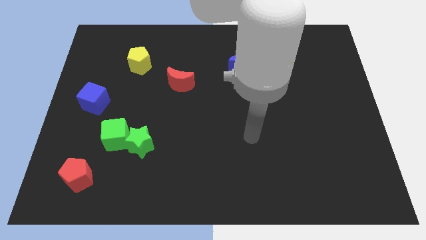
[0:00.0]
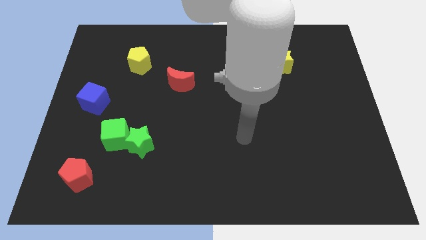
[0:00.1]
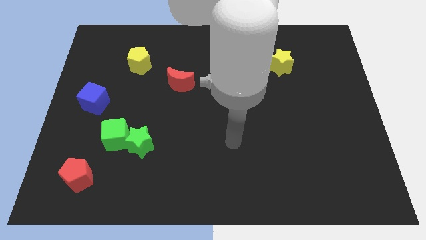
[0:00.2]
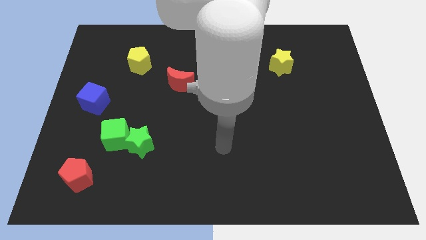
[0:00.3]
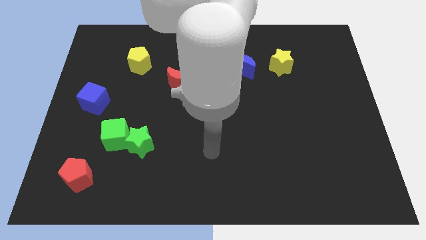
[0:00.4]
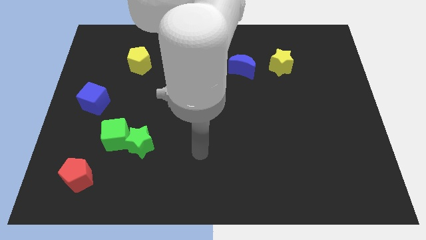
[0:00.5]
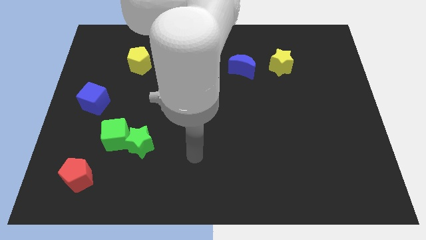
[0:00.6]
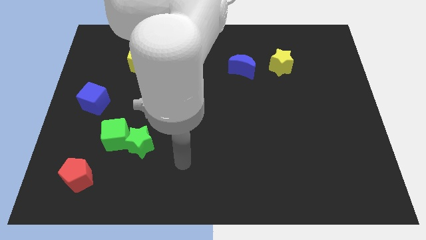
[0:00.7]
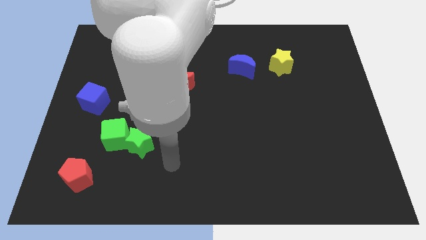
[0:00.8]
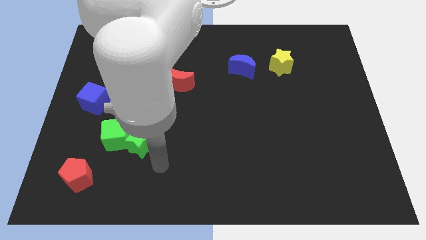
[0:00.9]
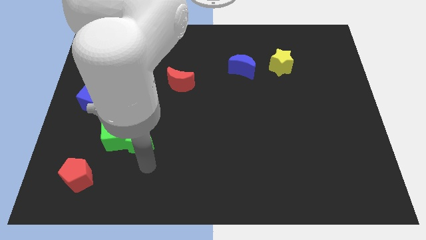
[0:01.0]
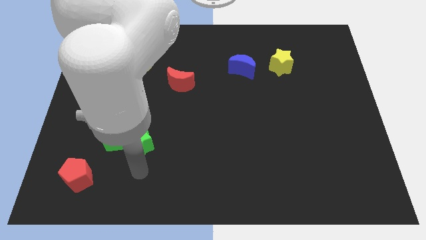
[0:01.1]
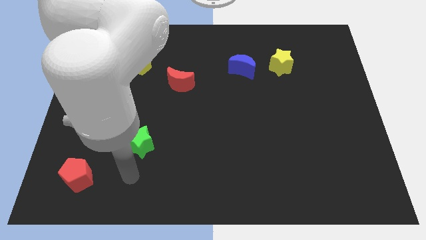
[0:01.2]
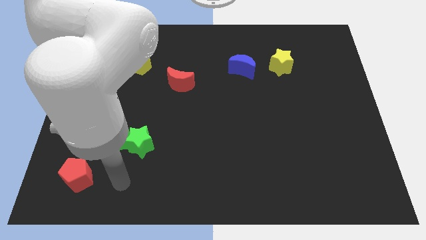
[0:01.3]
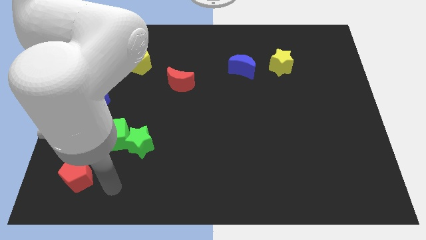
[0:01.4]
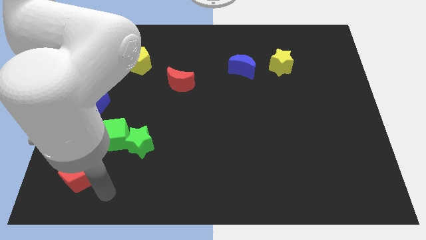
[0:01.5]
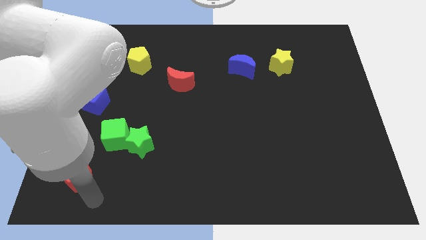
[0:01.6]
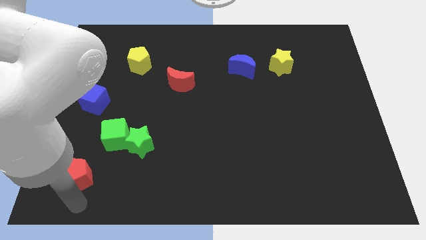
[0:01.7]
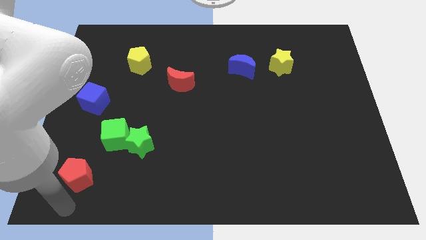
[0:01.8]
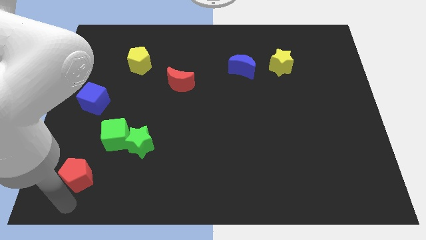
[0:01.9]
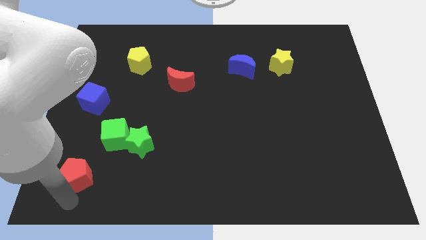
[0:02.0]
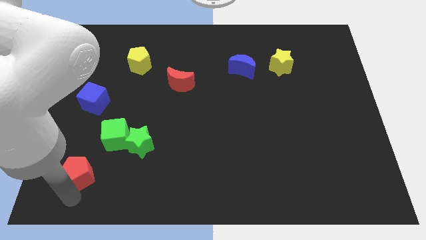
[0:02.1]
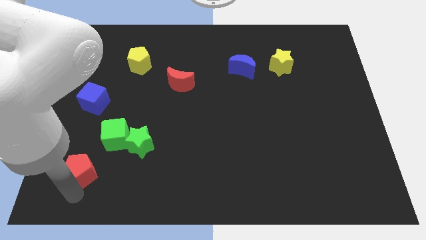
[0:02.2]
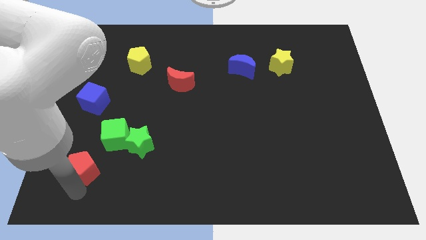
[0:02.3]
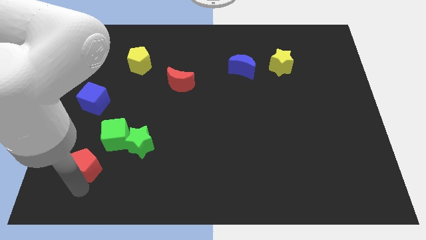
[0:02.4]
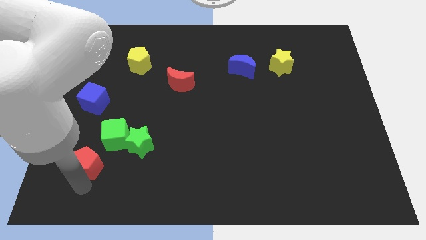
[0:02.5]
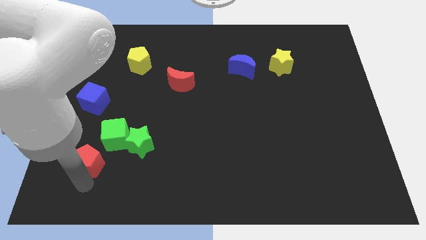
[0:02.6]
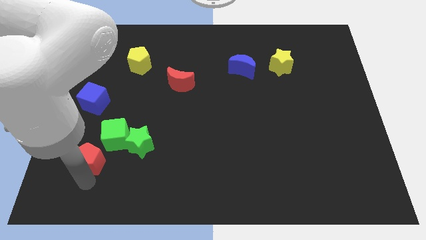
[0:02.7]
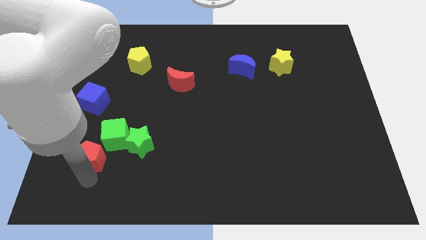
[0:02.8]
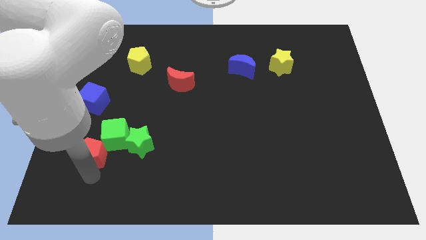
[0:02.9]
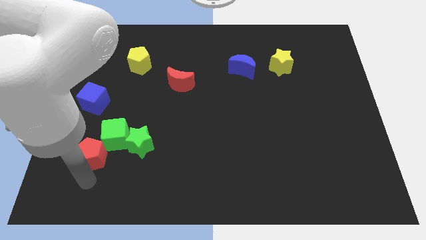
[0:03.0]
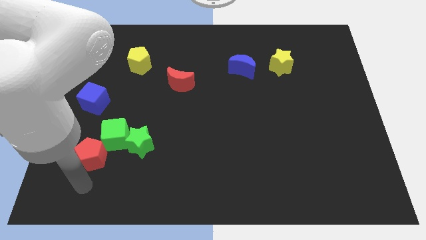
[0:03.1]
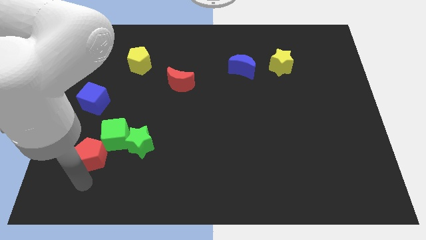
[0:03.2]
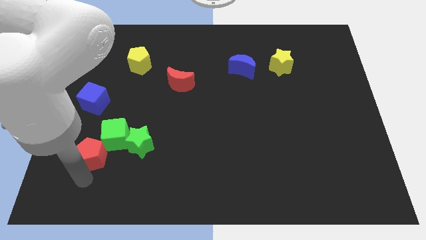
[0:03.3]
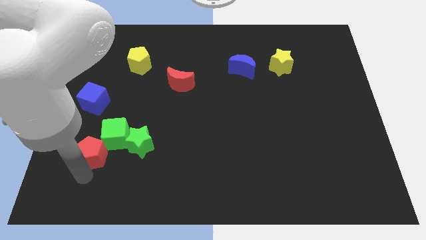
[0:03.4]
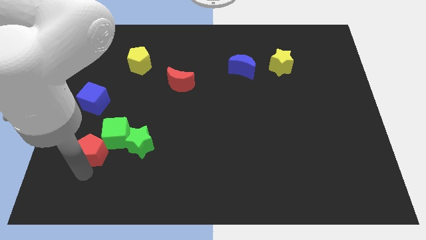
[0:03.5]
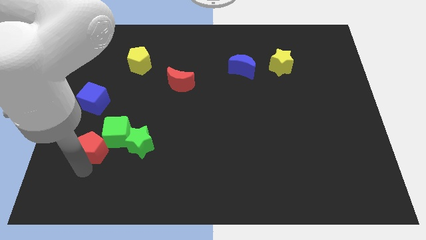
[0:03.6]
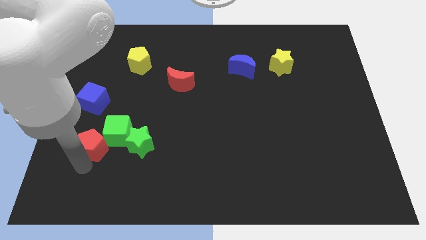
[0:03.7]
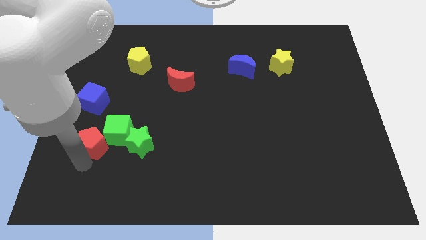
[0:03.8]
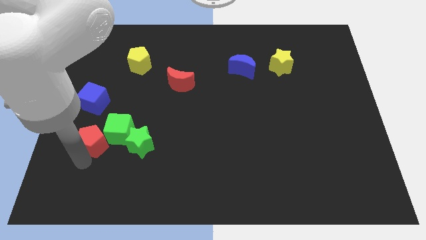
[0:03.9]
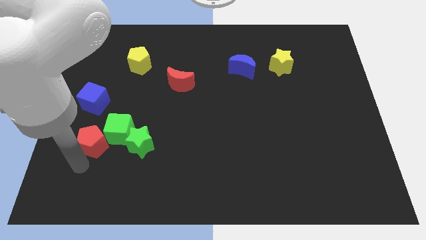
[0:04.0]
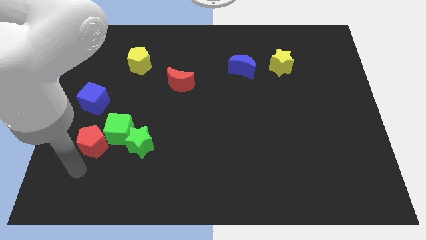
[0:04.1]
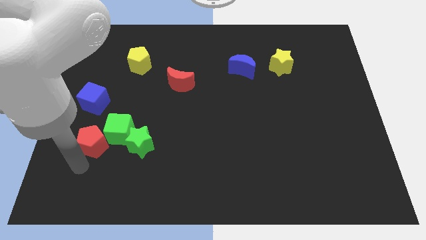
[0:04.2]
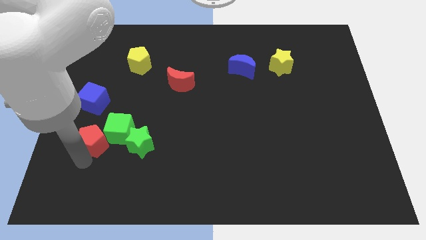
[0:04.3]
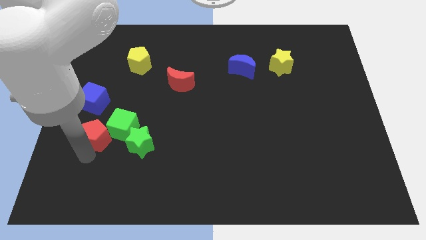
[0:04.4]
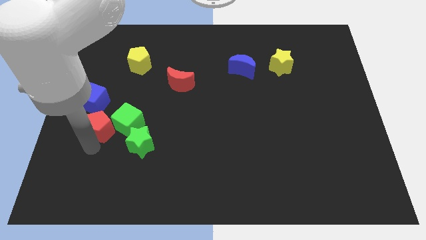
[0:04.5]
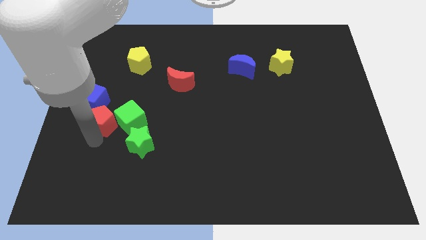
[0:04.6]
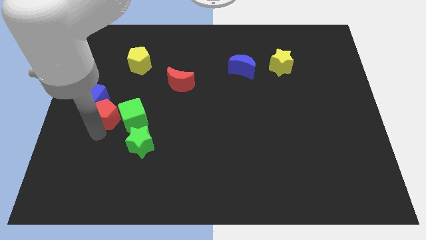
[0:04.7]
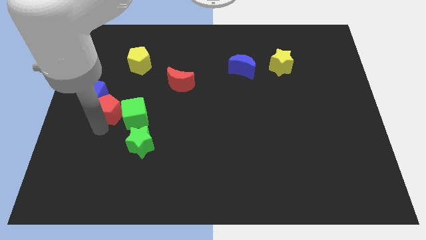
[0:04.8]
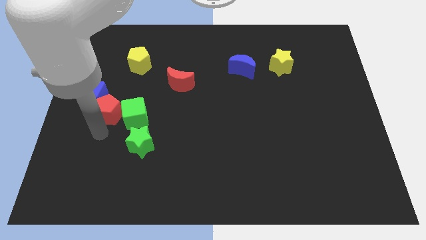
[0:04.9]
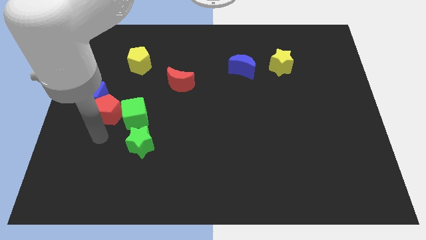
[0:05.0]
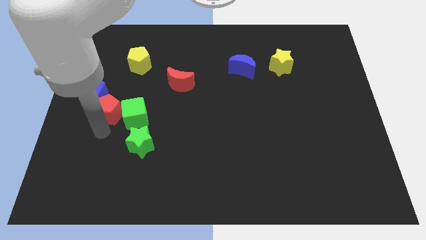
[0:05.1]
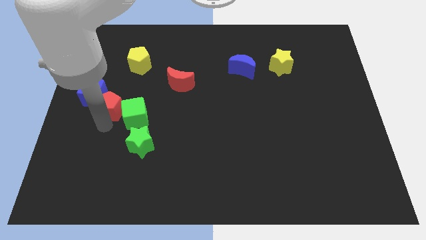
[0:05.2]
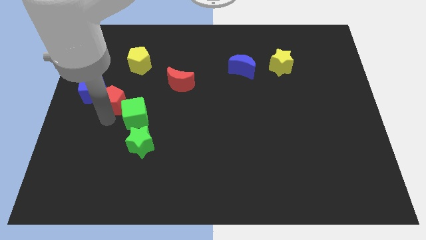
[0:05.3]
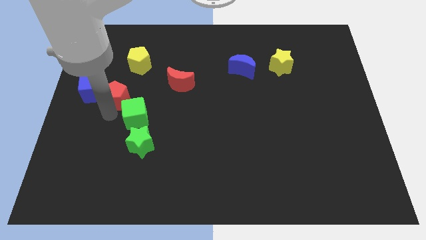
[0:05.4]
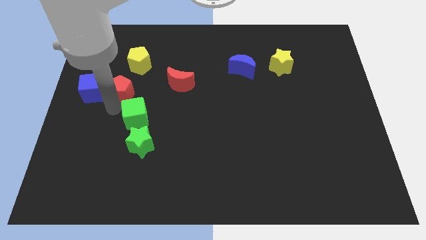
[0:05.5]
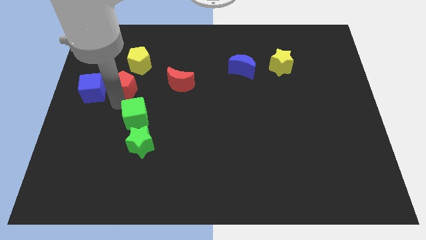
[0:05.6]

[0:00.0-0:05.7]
put the red pentagon to the bottom left side of the yellow pentagon

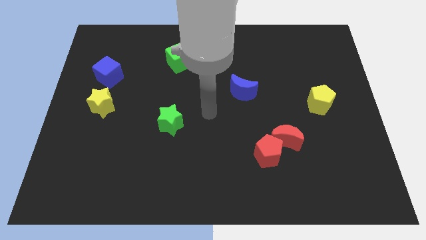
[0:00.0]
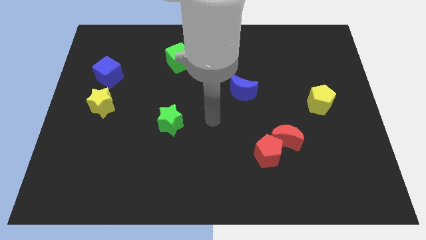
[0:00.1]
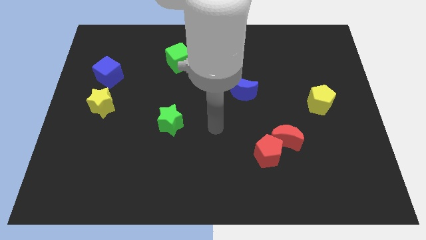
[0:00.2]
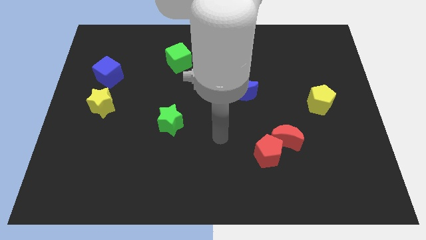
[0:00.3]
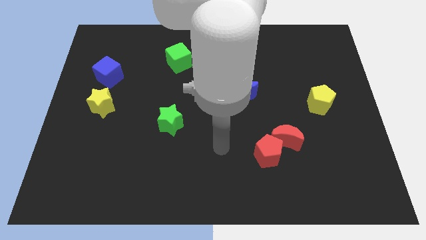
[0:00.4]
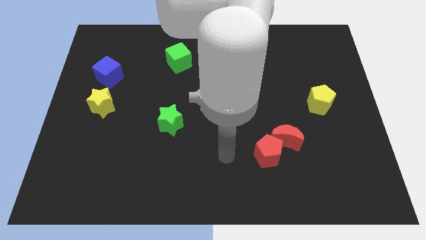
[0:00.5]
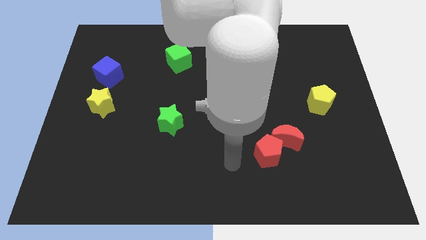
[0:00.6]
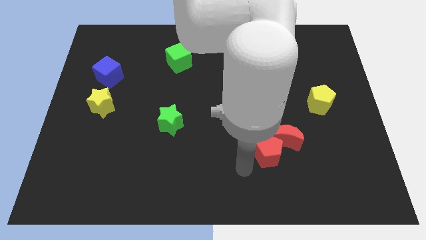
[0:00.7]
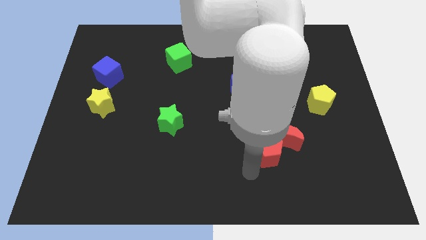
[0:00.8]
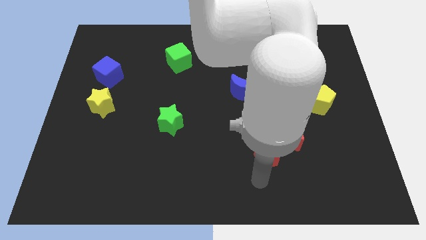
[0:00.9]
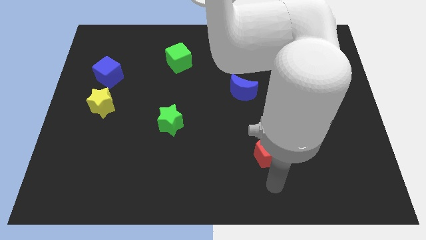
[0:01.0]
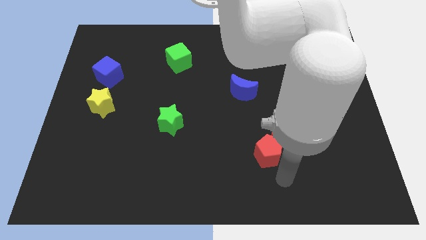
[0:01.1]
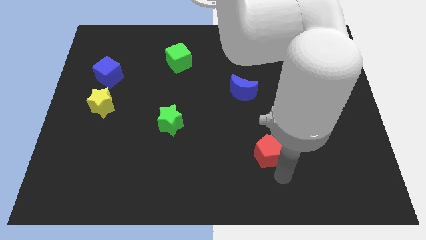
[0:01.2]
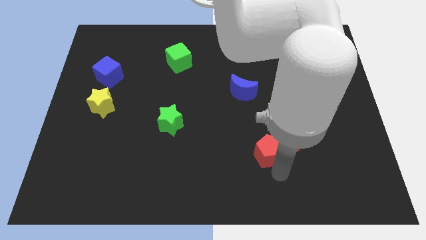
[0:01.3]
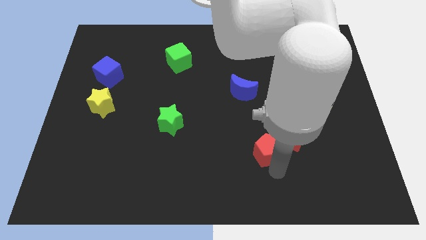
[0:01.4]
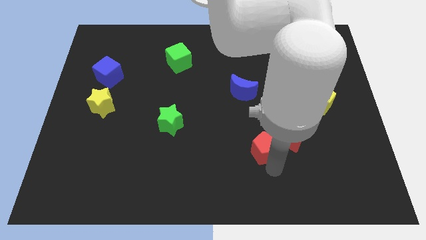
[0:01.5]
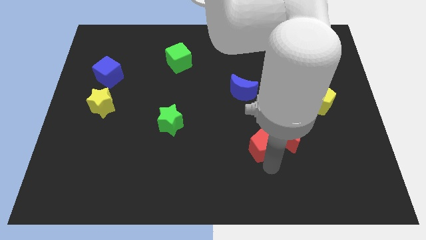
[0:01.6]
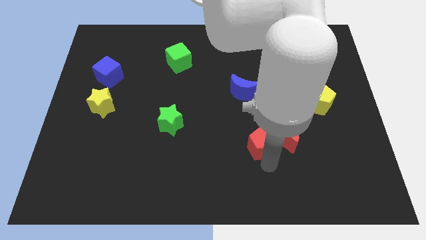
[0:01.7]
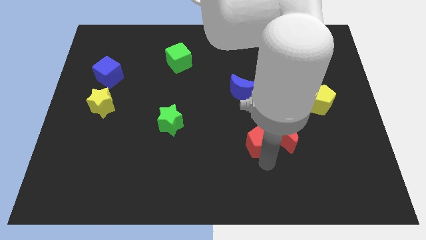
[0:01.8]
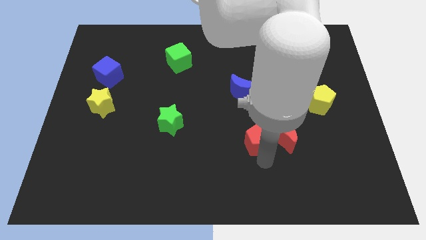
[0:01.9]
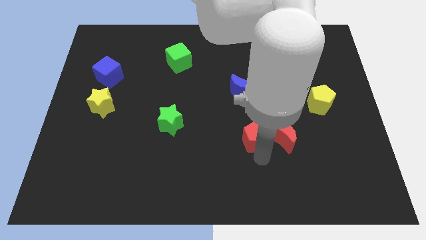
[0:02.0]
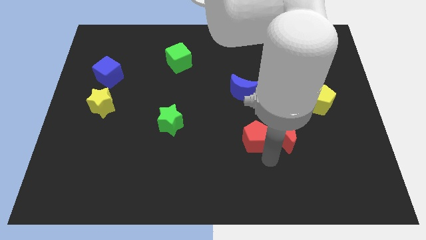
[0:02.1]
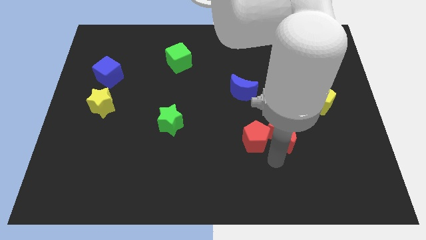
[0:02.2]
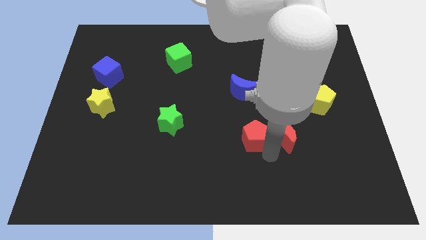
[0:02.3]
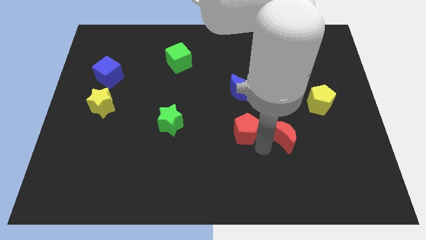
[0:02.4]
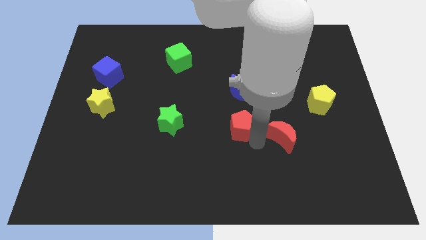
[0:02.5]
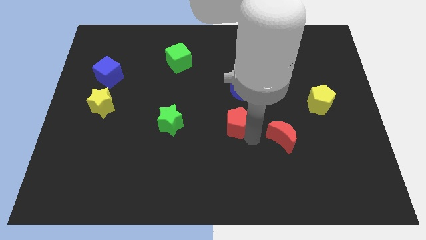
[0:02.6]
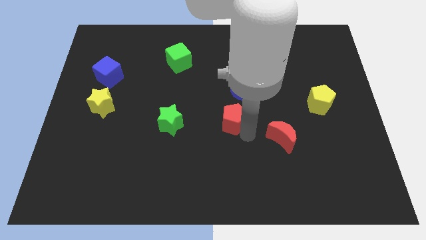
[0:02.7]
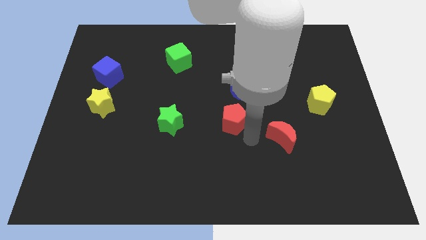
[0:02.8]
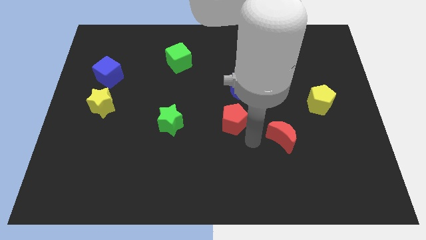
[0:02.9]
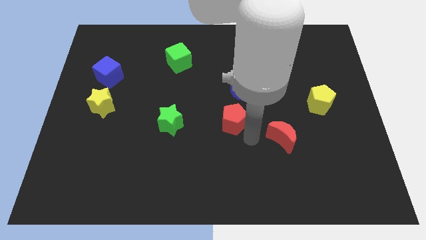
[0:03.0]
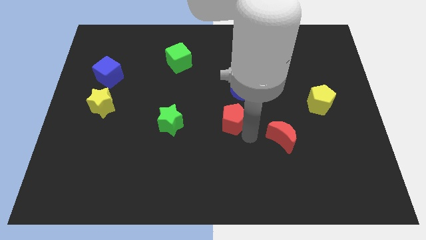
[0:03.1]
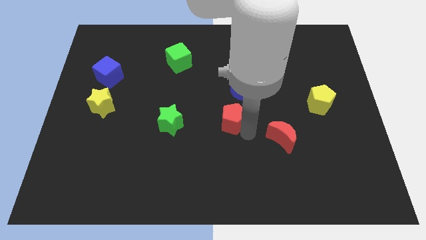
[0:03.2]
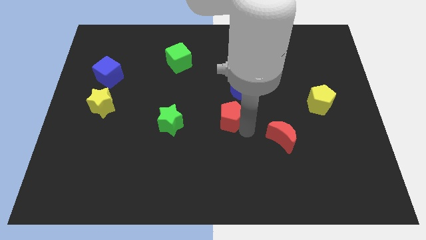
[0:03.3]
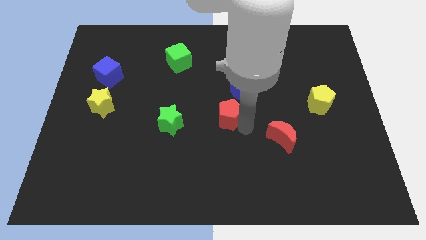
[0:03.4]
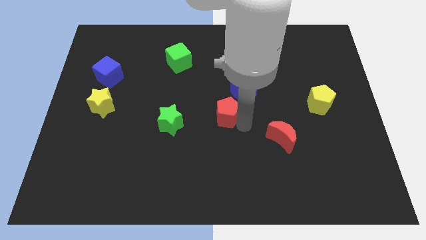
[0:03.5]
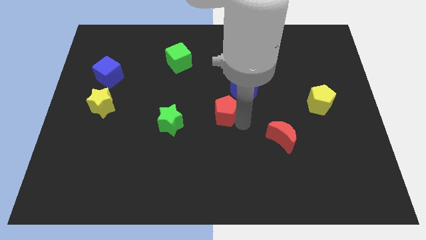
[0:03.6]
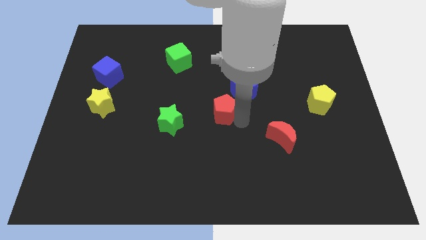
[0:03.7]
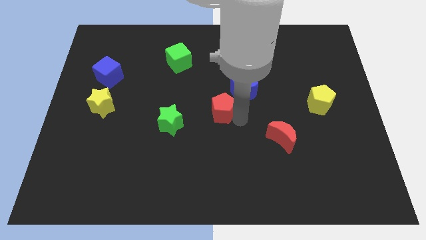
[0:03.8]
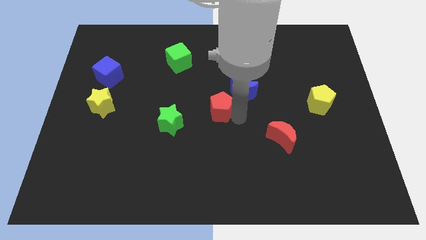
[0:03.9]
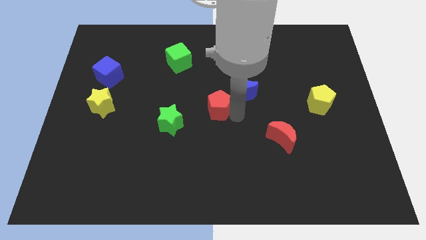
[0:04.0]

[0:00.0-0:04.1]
push the red pentagon just left of the blue moon
